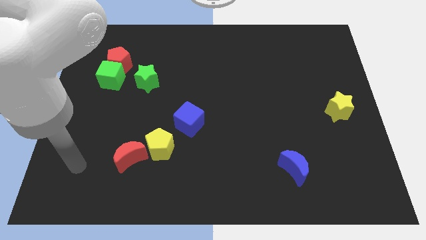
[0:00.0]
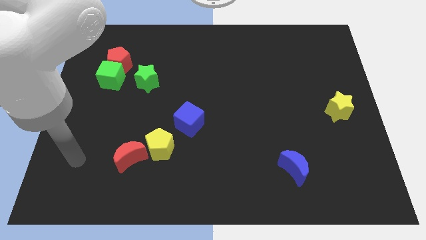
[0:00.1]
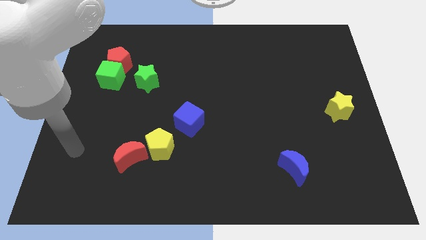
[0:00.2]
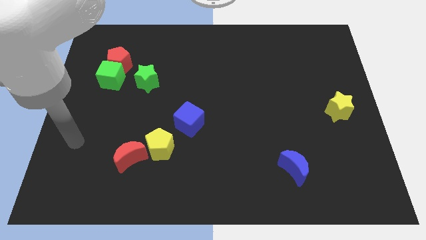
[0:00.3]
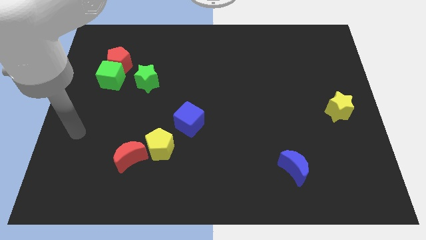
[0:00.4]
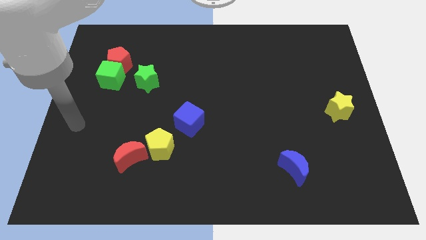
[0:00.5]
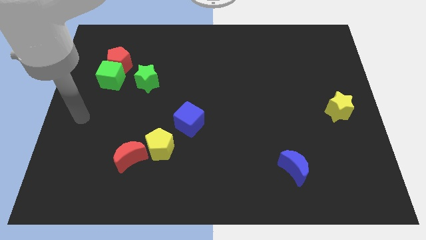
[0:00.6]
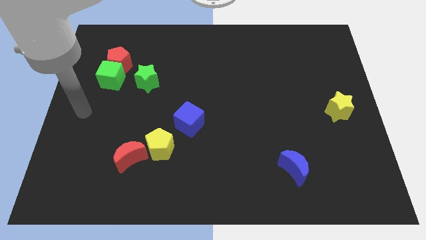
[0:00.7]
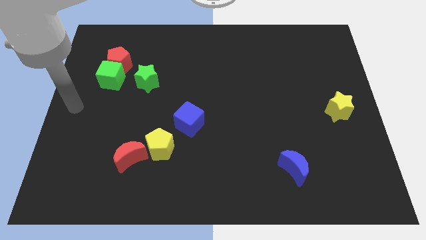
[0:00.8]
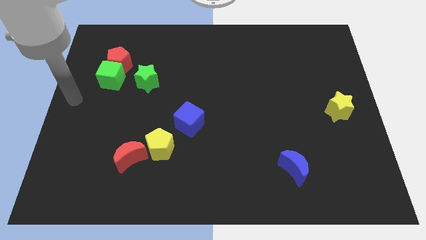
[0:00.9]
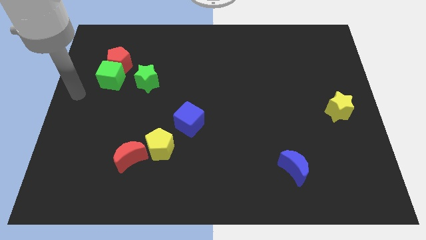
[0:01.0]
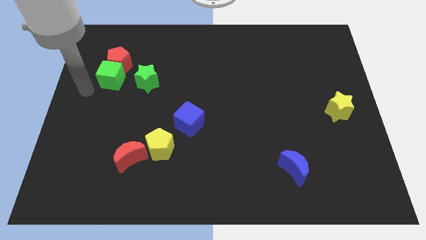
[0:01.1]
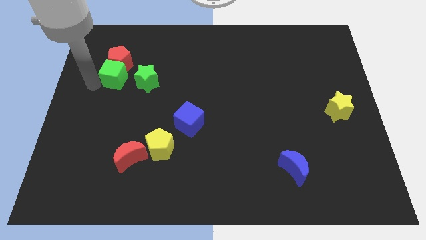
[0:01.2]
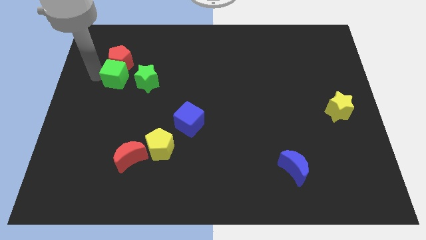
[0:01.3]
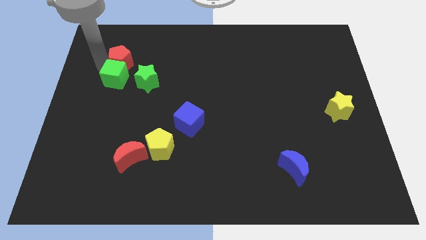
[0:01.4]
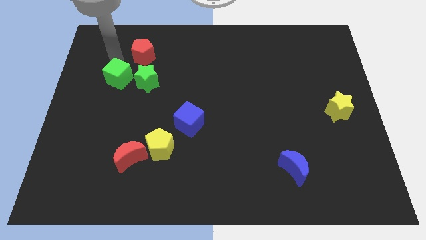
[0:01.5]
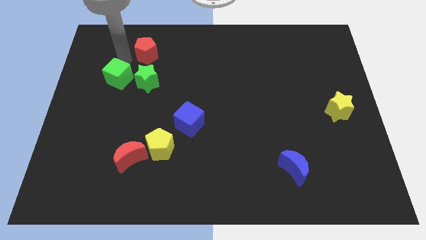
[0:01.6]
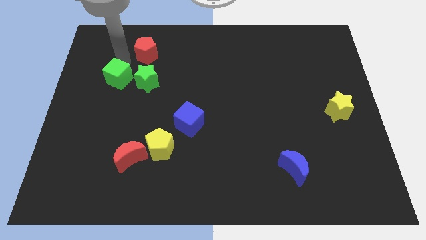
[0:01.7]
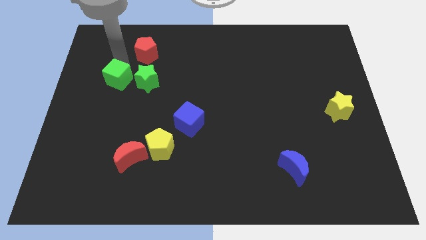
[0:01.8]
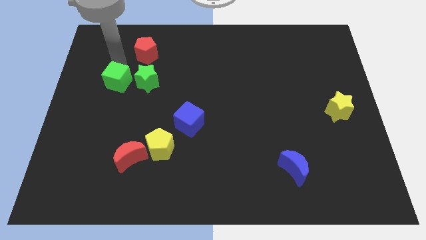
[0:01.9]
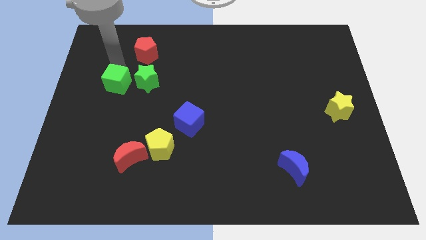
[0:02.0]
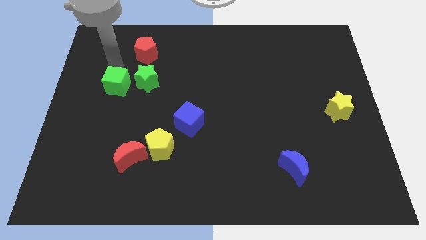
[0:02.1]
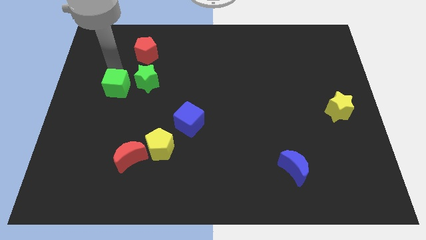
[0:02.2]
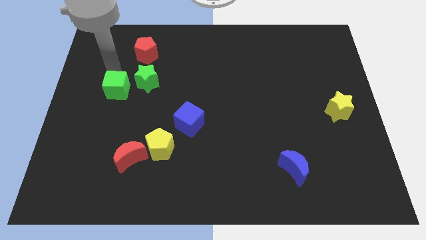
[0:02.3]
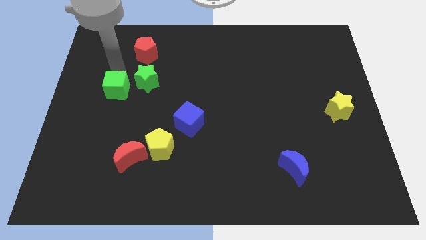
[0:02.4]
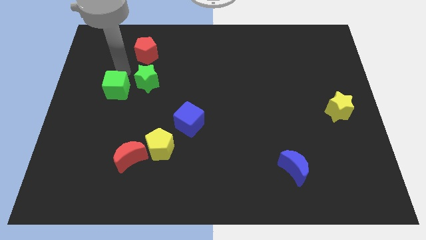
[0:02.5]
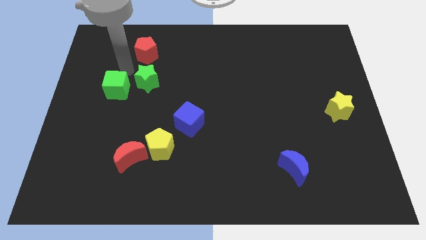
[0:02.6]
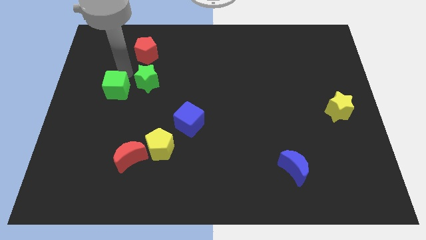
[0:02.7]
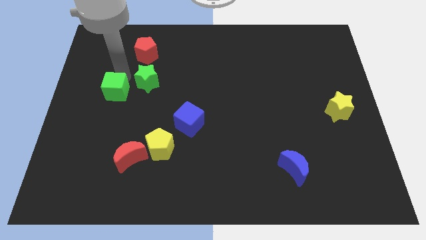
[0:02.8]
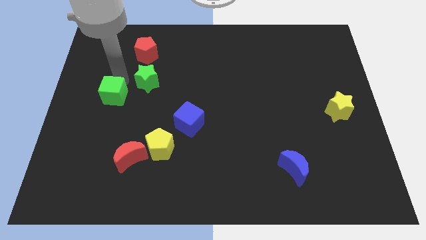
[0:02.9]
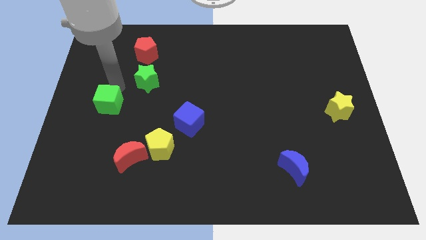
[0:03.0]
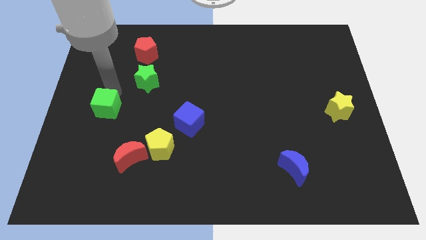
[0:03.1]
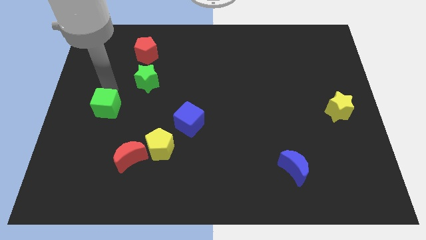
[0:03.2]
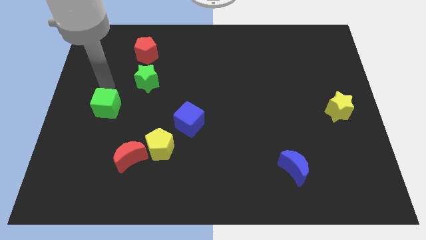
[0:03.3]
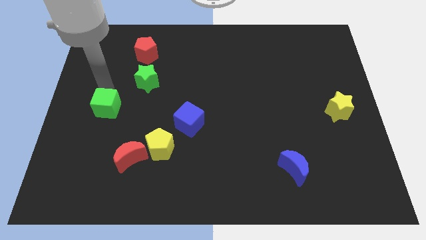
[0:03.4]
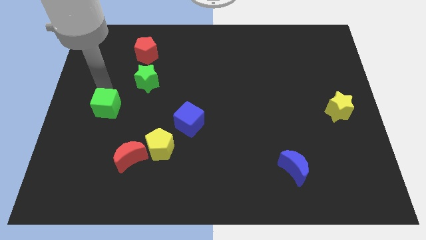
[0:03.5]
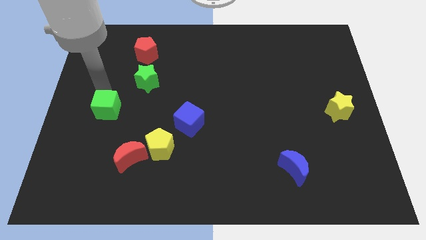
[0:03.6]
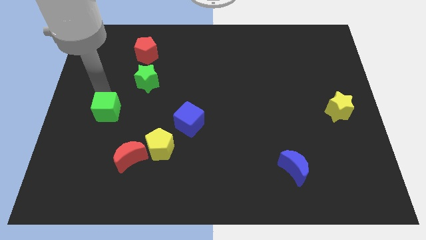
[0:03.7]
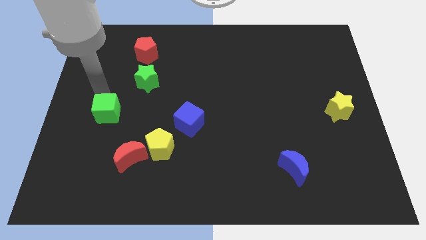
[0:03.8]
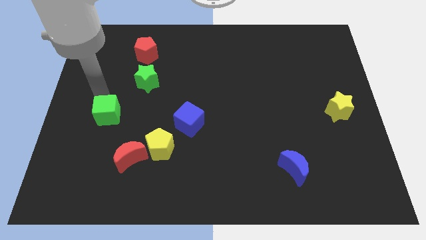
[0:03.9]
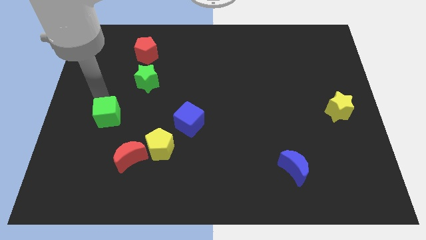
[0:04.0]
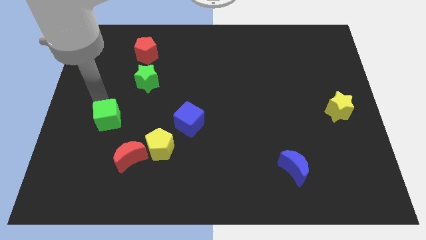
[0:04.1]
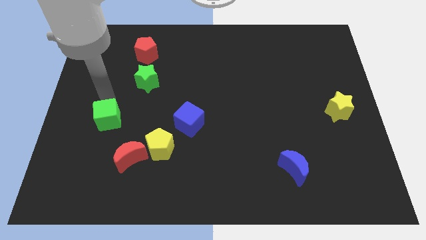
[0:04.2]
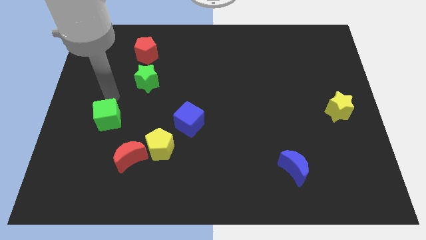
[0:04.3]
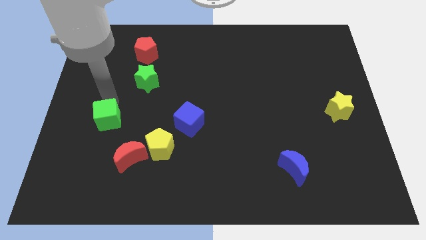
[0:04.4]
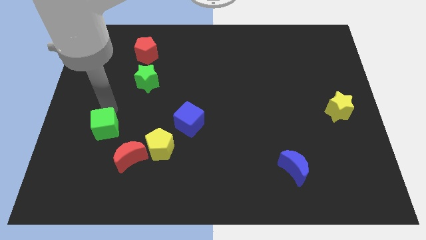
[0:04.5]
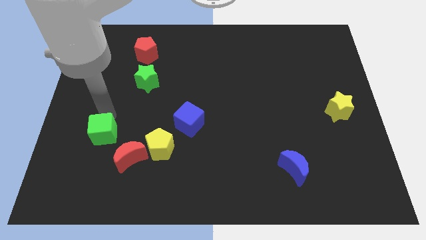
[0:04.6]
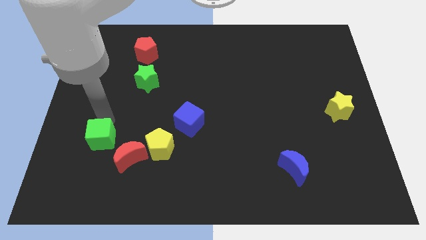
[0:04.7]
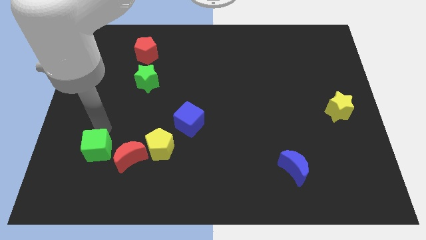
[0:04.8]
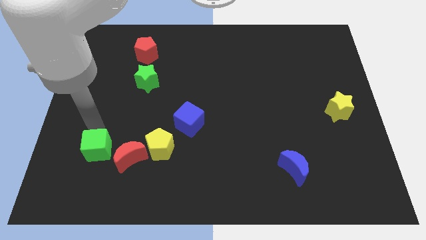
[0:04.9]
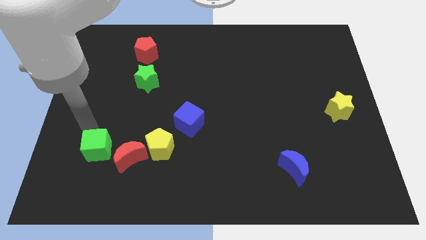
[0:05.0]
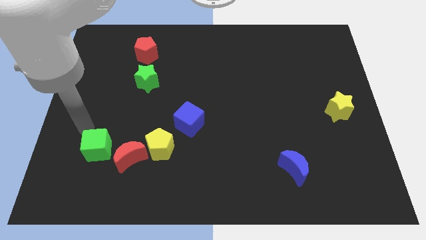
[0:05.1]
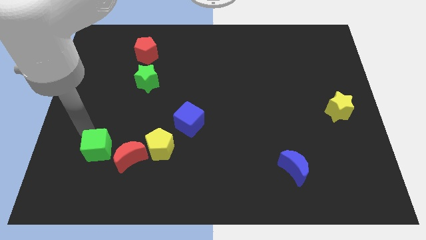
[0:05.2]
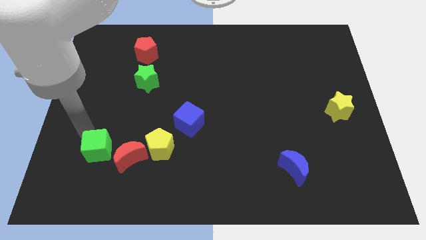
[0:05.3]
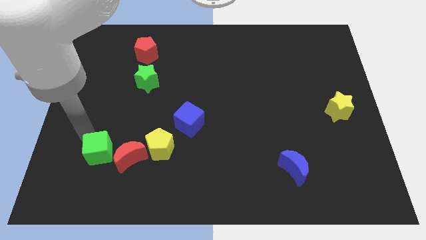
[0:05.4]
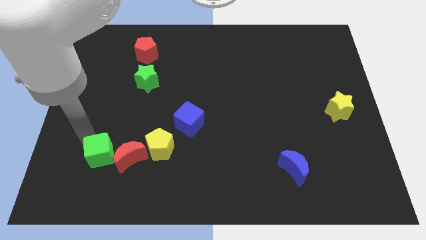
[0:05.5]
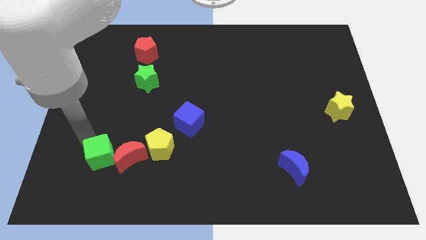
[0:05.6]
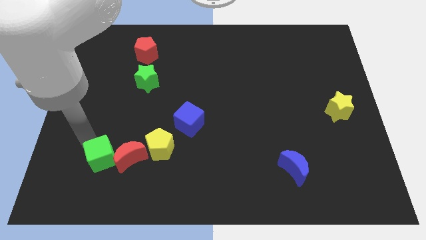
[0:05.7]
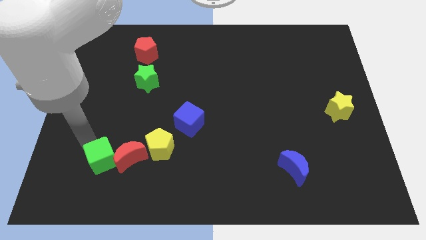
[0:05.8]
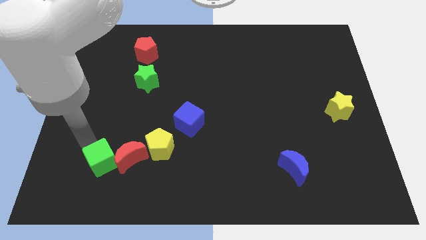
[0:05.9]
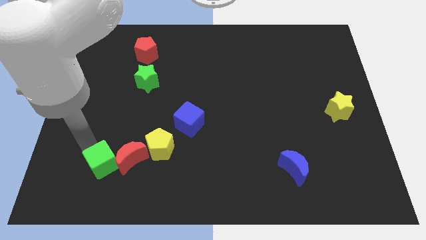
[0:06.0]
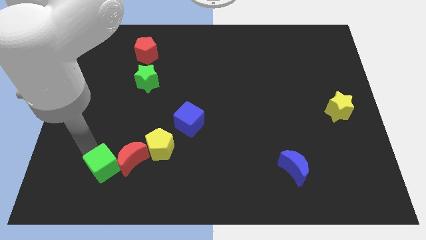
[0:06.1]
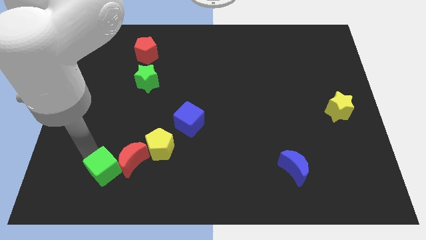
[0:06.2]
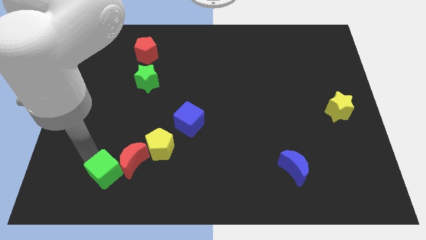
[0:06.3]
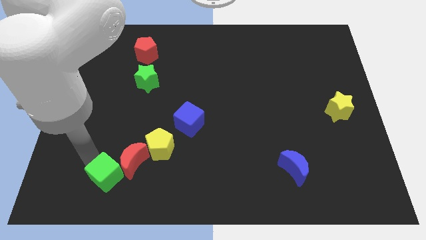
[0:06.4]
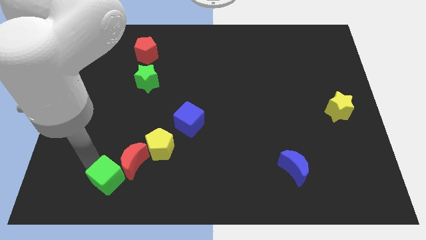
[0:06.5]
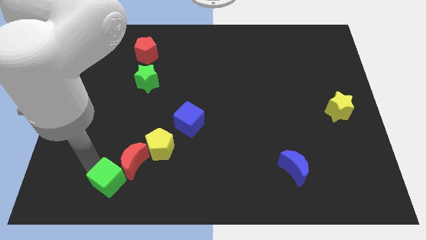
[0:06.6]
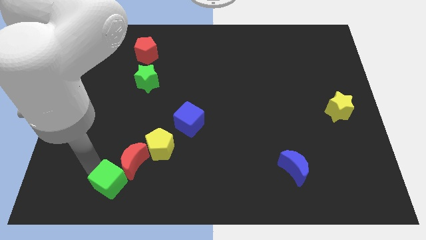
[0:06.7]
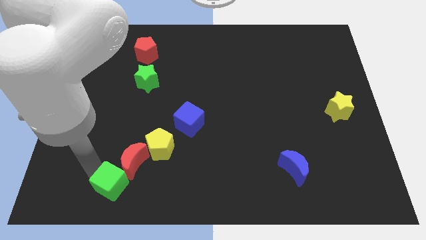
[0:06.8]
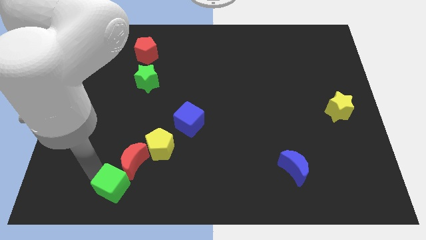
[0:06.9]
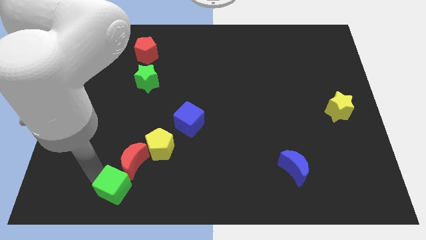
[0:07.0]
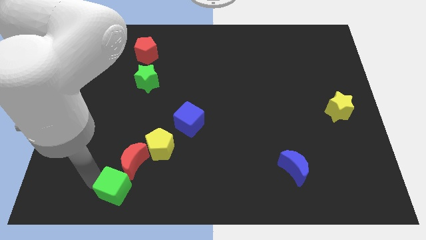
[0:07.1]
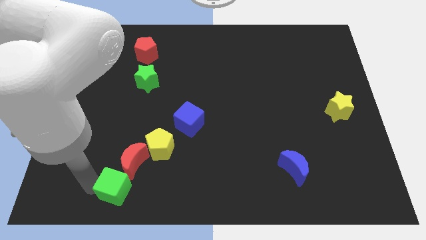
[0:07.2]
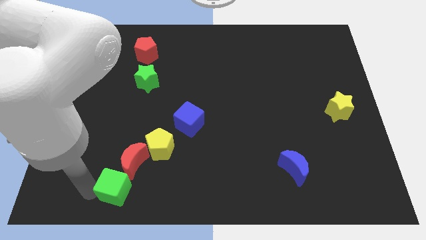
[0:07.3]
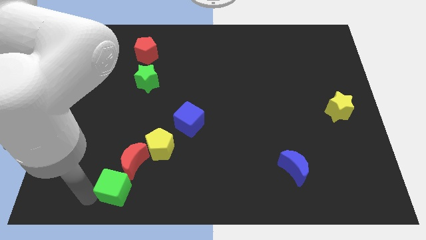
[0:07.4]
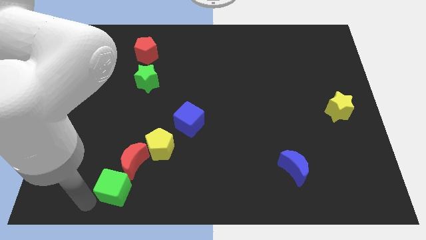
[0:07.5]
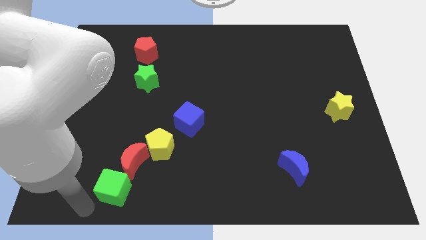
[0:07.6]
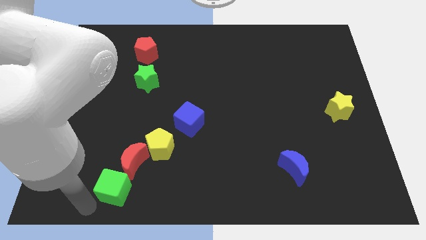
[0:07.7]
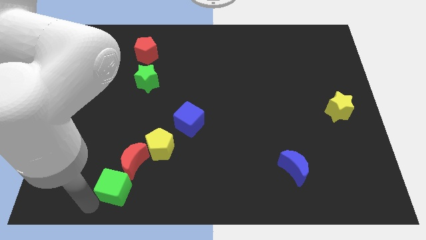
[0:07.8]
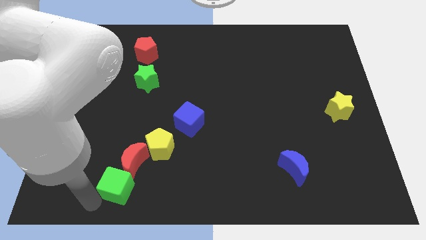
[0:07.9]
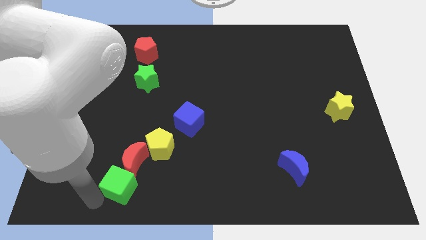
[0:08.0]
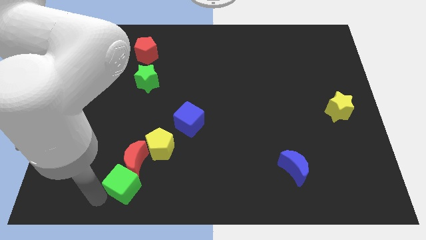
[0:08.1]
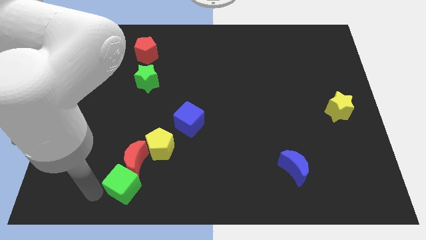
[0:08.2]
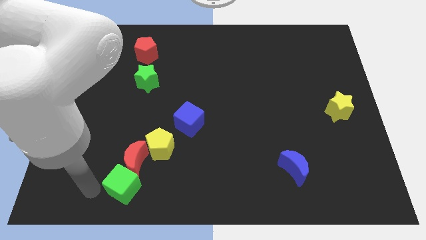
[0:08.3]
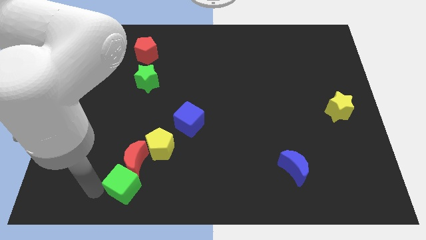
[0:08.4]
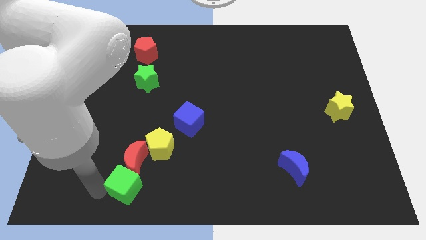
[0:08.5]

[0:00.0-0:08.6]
slide the green cube diagonally down and to the right of the red moon
